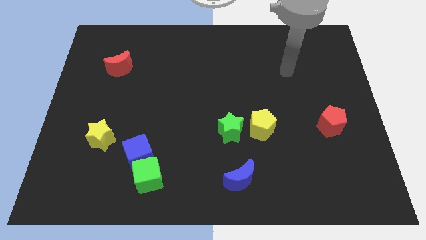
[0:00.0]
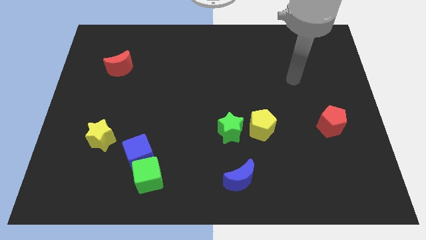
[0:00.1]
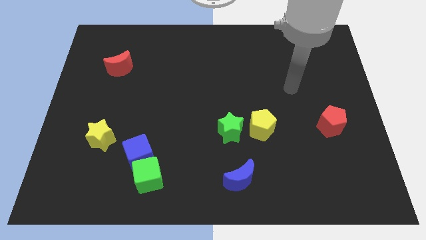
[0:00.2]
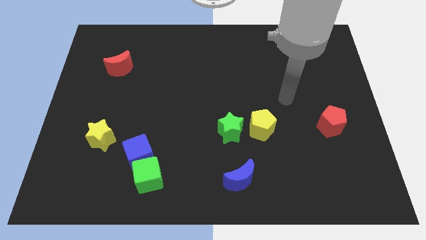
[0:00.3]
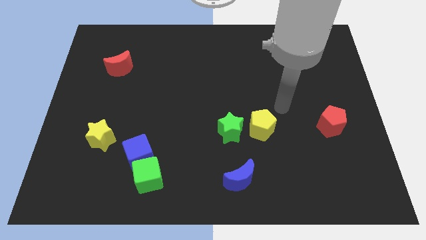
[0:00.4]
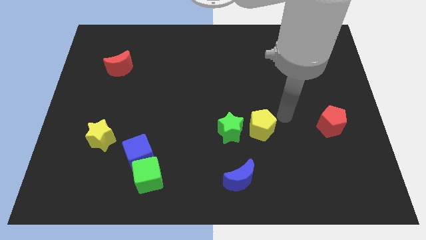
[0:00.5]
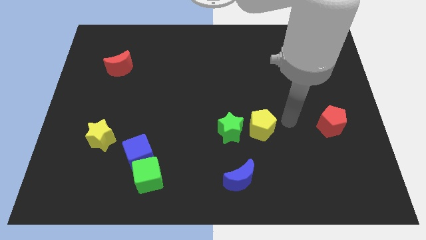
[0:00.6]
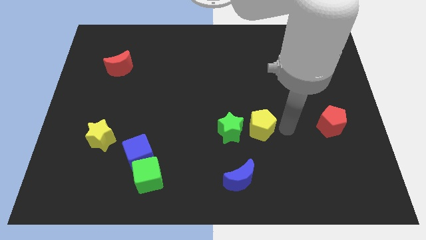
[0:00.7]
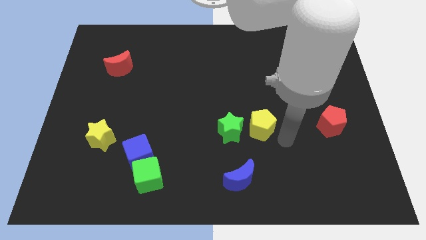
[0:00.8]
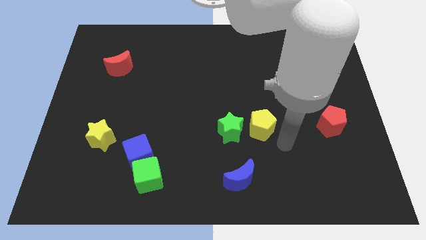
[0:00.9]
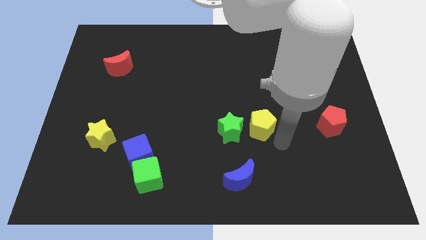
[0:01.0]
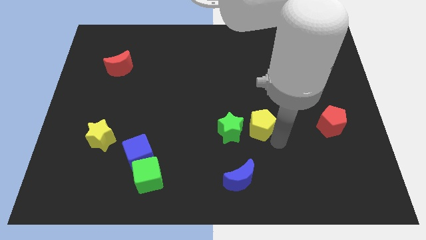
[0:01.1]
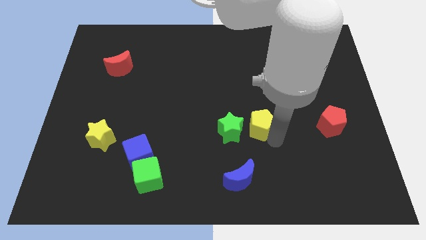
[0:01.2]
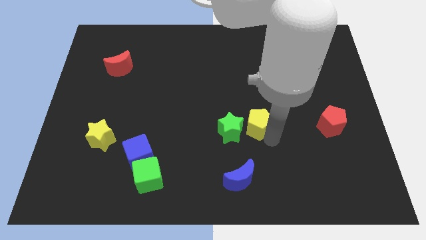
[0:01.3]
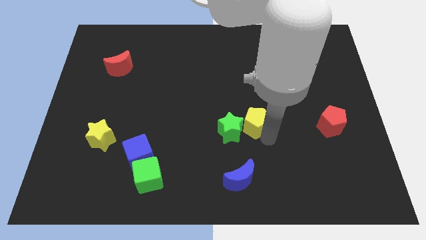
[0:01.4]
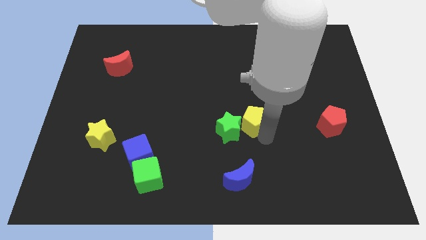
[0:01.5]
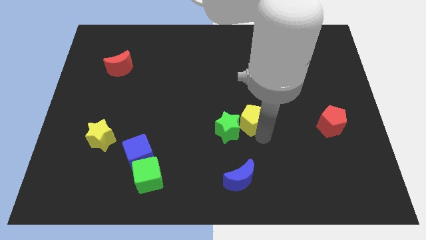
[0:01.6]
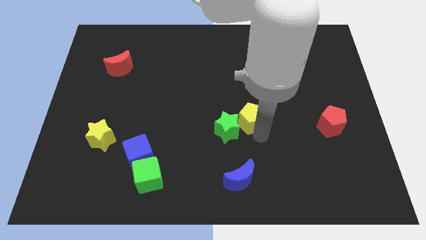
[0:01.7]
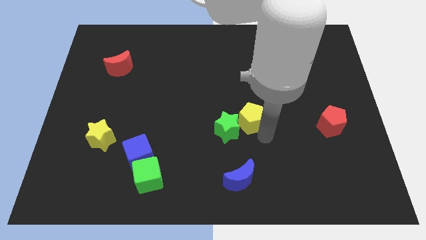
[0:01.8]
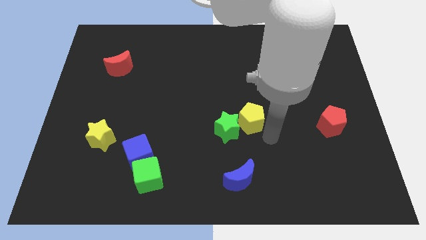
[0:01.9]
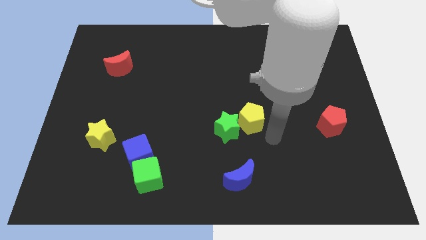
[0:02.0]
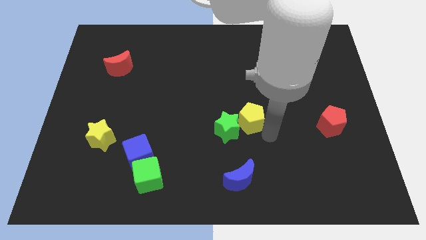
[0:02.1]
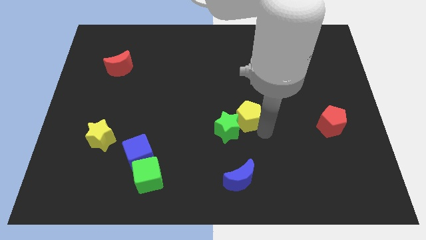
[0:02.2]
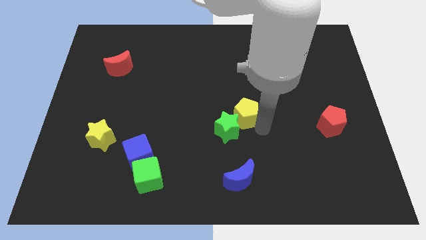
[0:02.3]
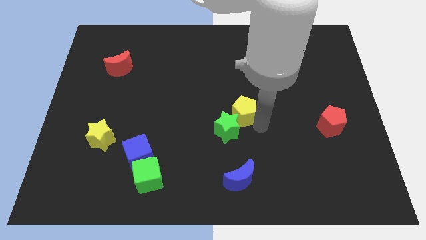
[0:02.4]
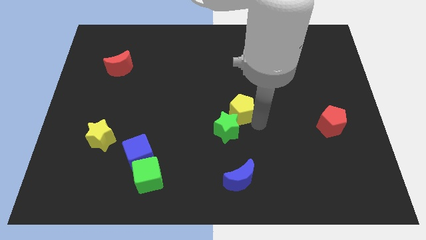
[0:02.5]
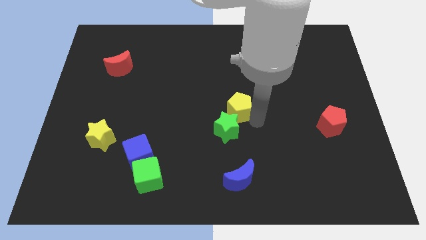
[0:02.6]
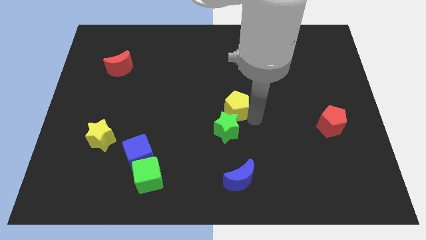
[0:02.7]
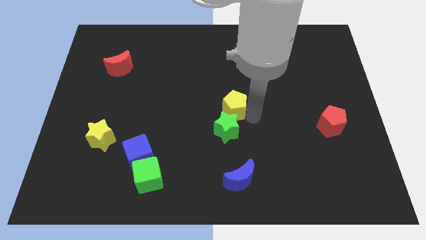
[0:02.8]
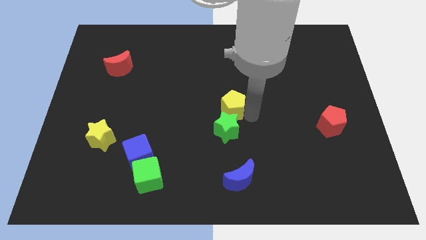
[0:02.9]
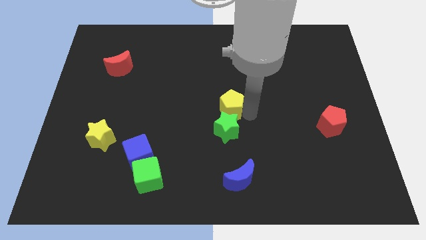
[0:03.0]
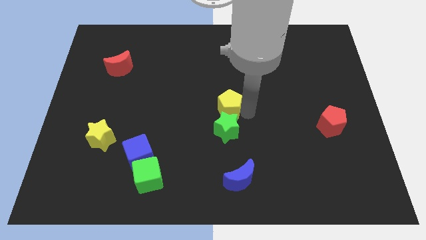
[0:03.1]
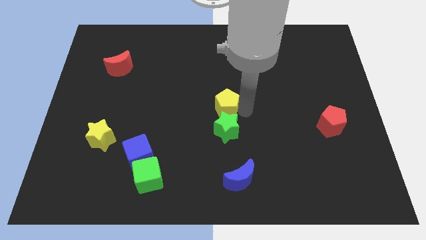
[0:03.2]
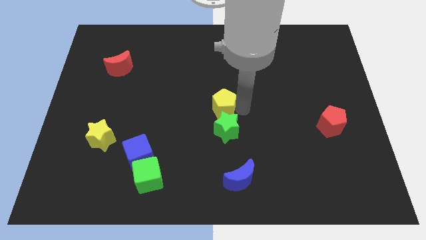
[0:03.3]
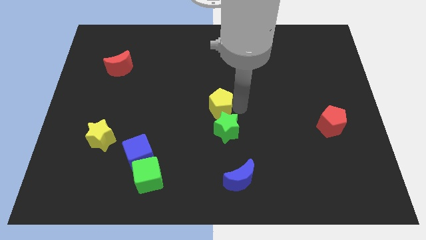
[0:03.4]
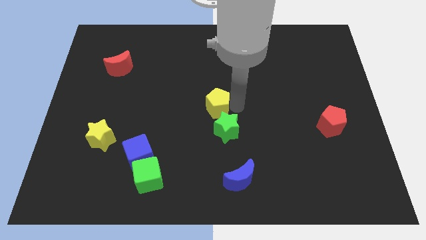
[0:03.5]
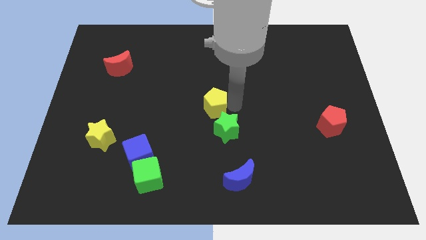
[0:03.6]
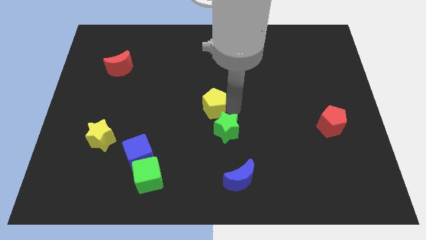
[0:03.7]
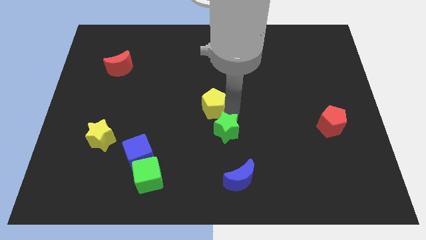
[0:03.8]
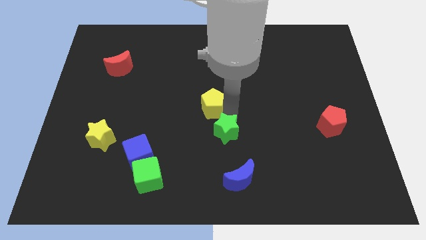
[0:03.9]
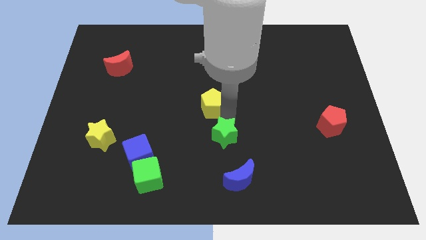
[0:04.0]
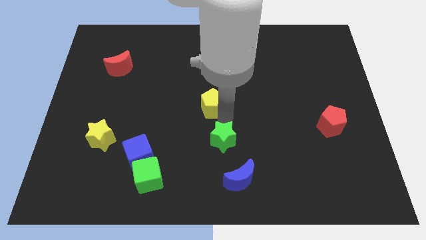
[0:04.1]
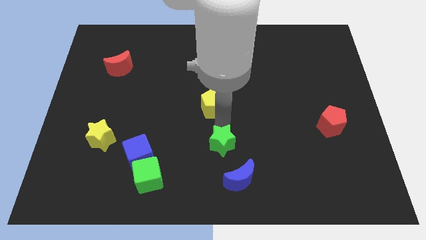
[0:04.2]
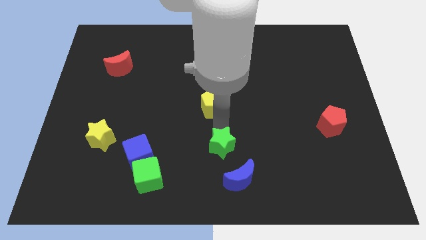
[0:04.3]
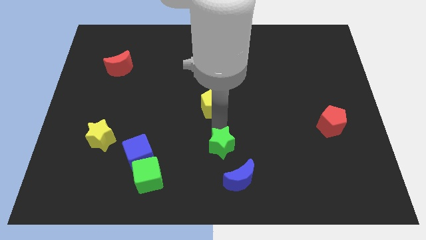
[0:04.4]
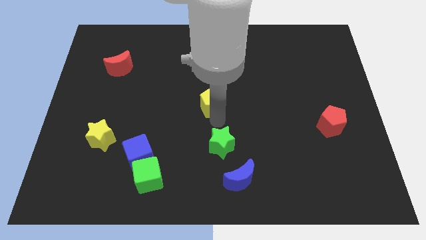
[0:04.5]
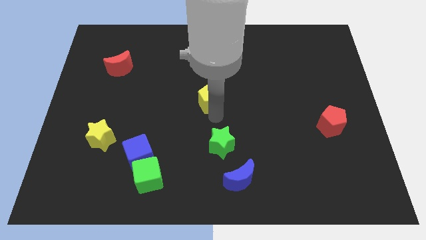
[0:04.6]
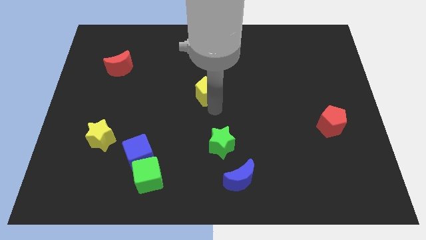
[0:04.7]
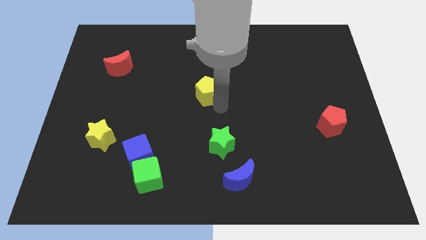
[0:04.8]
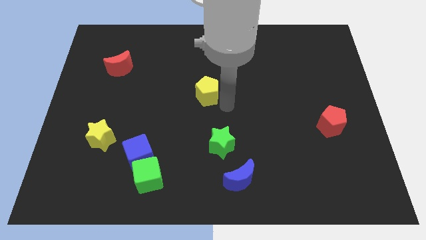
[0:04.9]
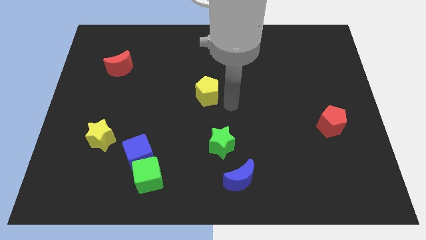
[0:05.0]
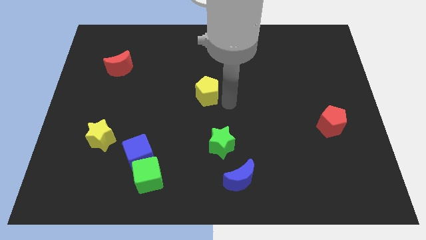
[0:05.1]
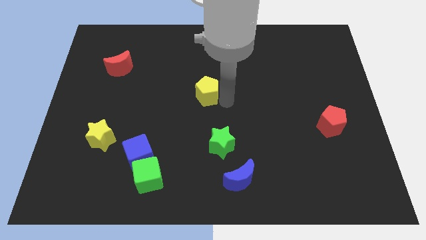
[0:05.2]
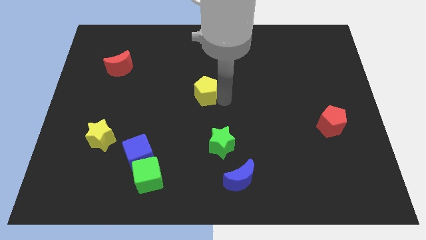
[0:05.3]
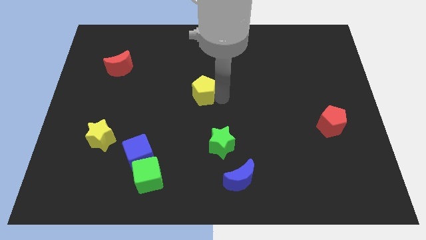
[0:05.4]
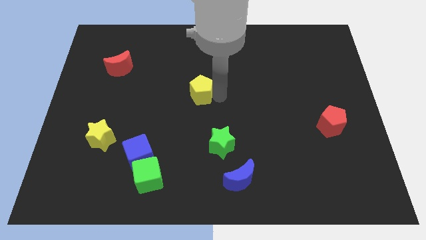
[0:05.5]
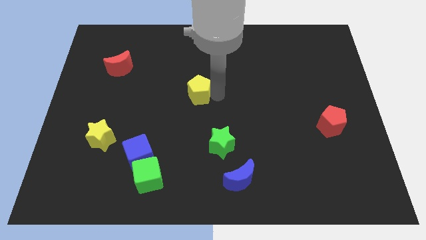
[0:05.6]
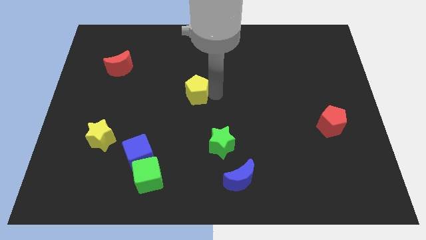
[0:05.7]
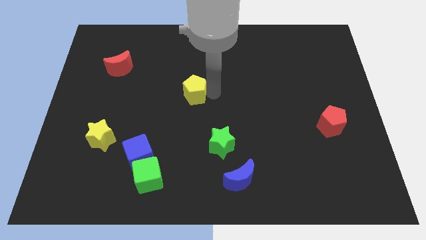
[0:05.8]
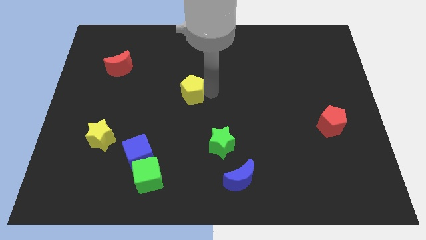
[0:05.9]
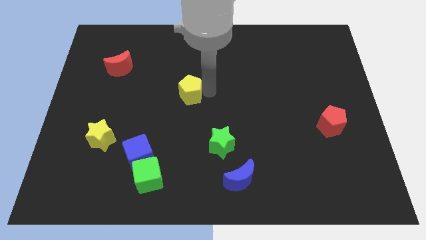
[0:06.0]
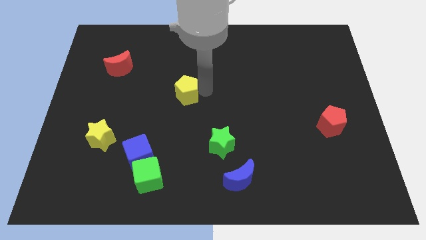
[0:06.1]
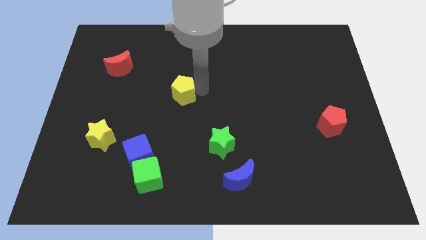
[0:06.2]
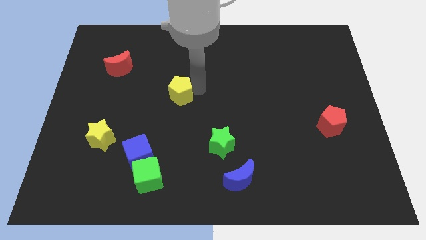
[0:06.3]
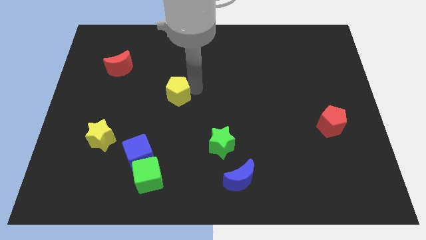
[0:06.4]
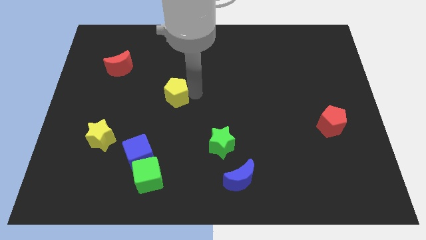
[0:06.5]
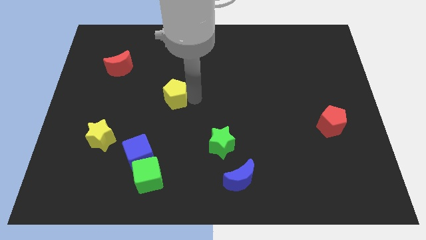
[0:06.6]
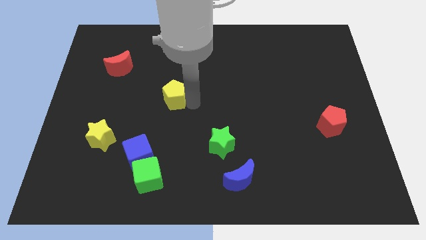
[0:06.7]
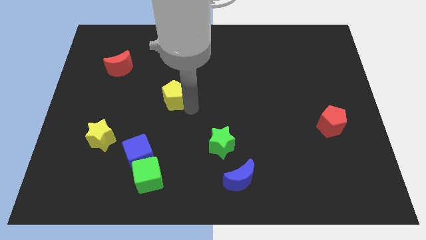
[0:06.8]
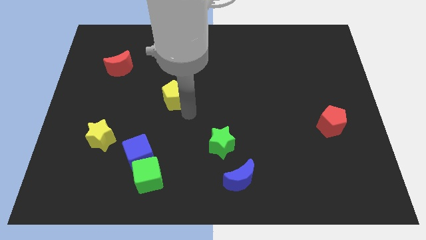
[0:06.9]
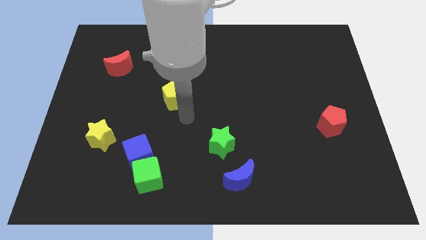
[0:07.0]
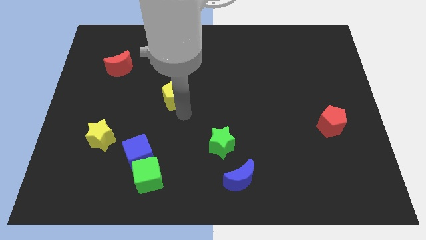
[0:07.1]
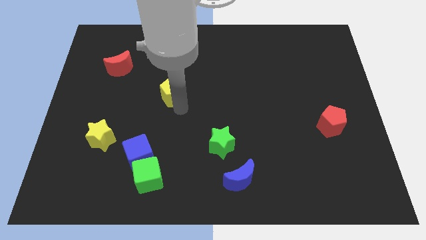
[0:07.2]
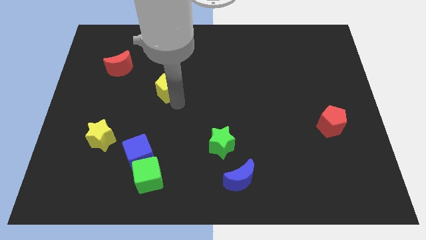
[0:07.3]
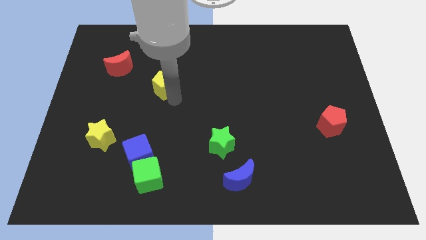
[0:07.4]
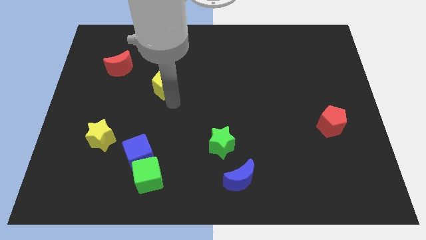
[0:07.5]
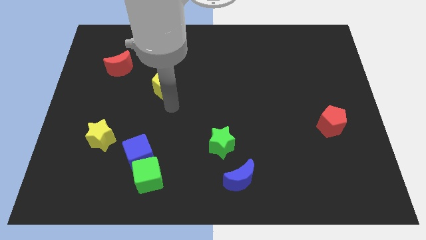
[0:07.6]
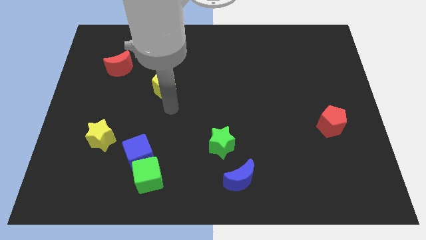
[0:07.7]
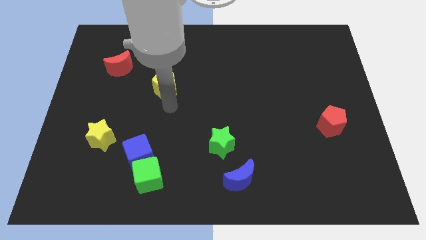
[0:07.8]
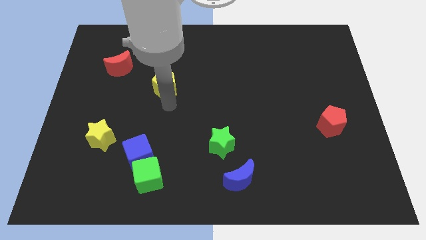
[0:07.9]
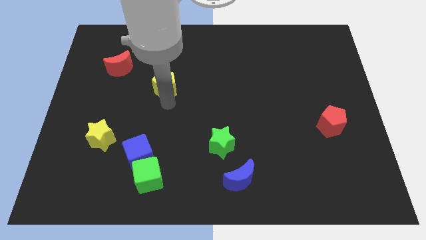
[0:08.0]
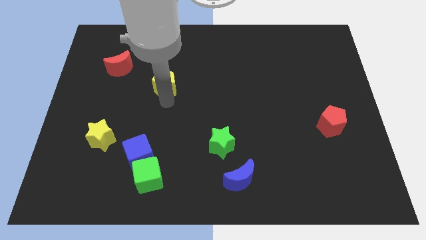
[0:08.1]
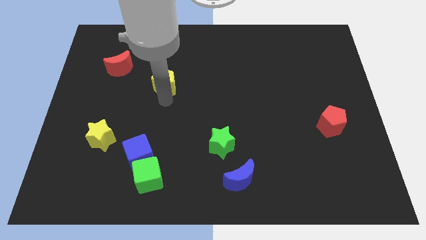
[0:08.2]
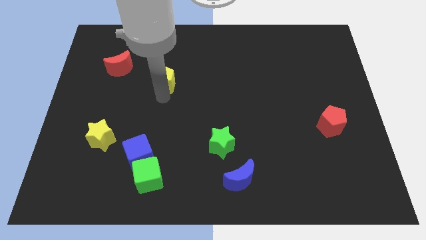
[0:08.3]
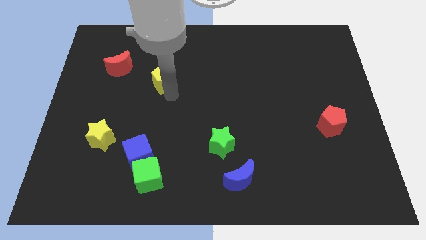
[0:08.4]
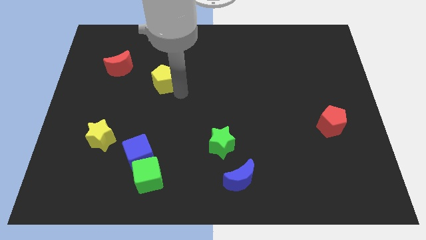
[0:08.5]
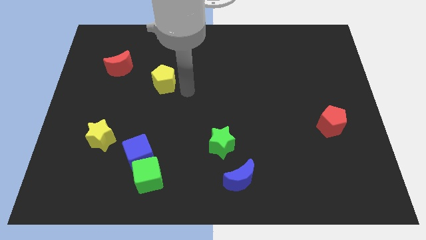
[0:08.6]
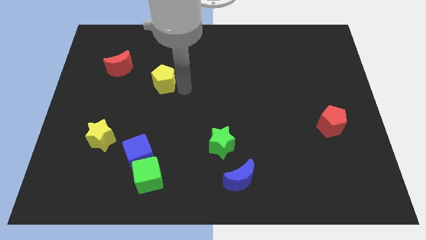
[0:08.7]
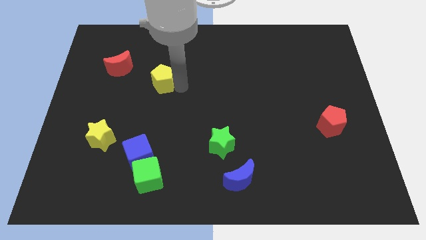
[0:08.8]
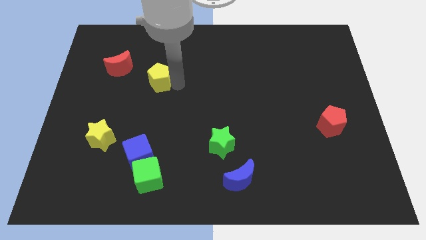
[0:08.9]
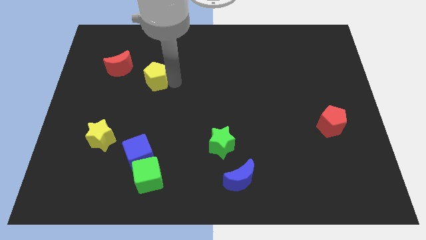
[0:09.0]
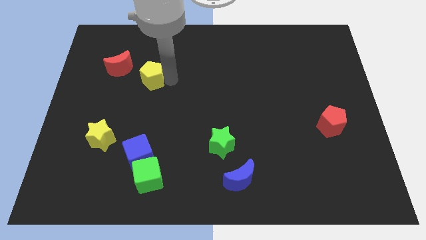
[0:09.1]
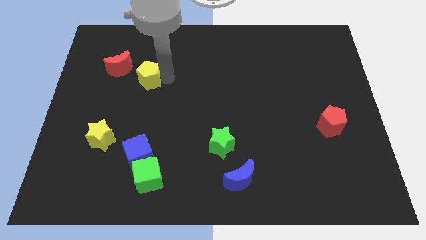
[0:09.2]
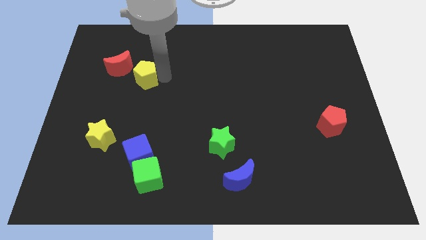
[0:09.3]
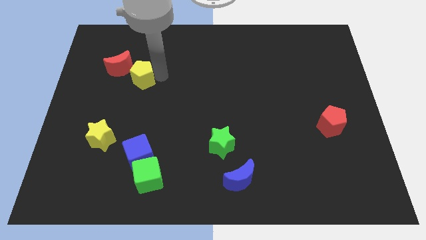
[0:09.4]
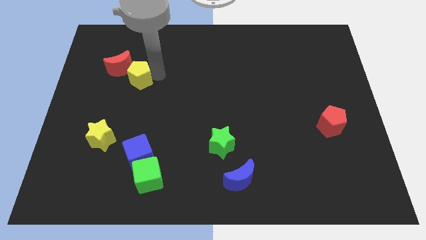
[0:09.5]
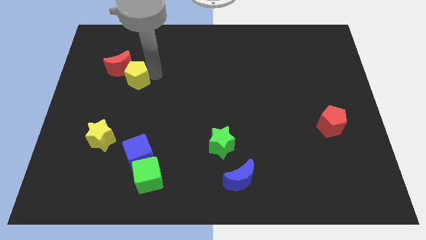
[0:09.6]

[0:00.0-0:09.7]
move the yellow pentagon to the red moon
